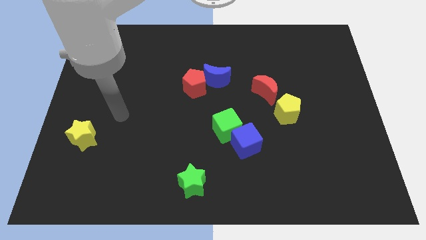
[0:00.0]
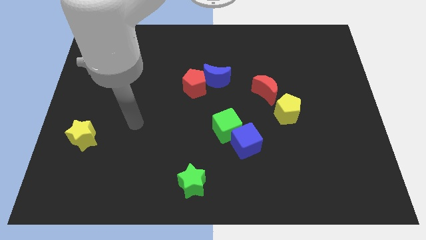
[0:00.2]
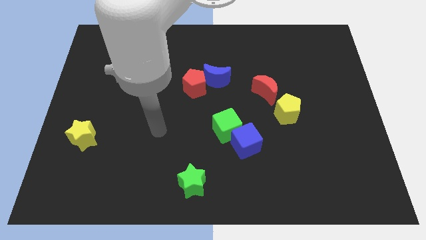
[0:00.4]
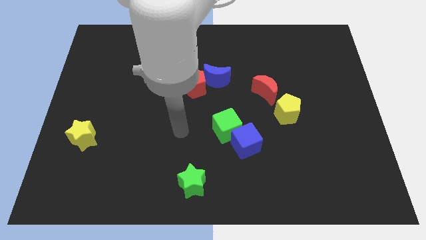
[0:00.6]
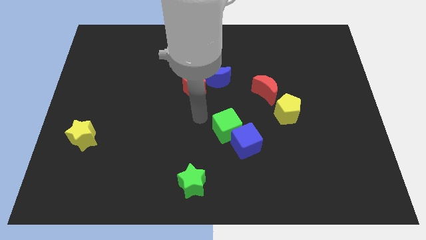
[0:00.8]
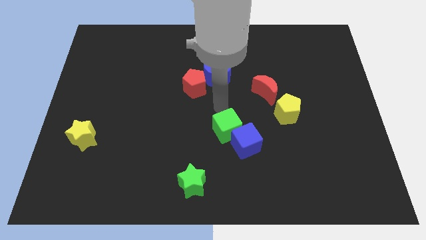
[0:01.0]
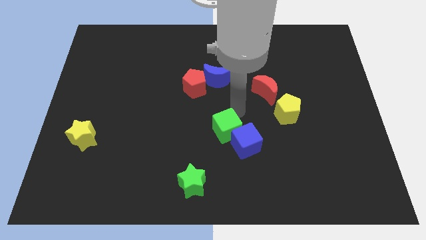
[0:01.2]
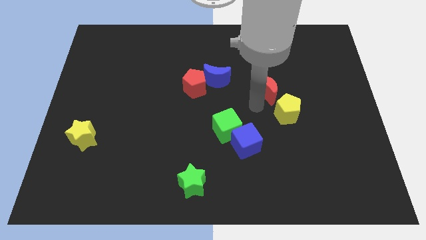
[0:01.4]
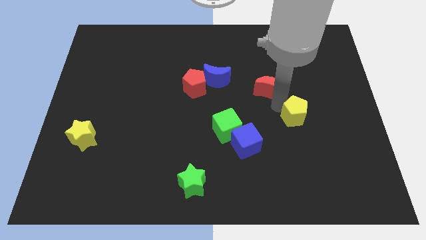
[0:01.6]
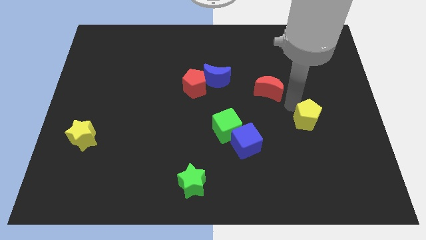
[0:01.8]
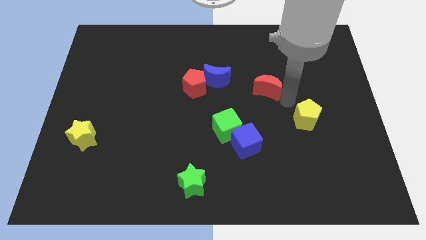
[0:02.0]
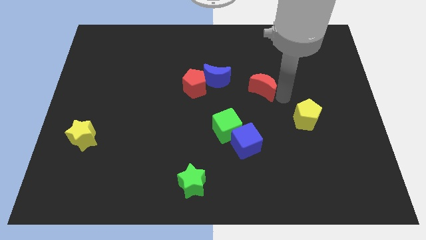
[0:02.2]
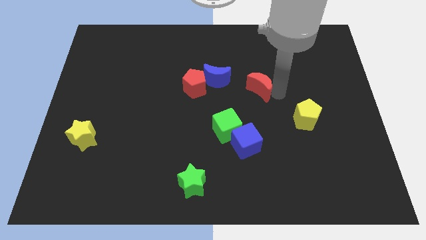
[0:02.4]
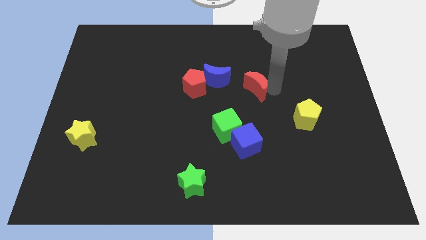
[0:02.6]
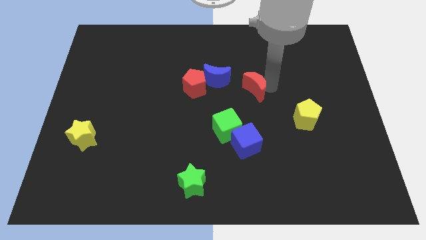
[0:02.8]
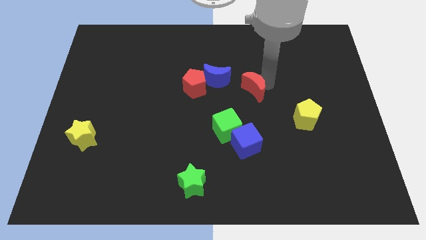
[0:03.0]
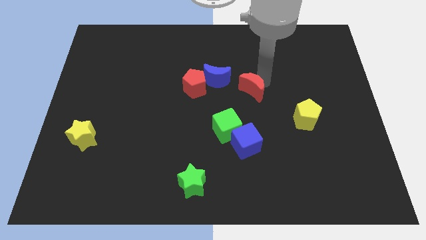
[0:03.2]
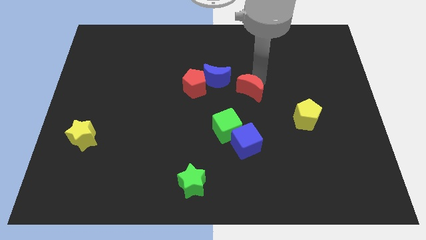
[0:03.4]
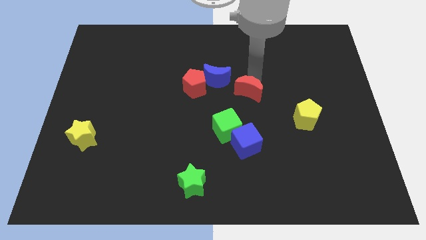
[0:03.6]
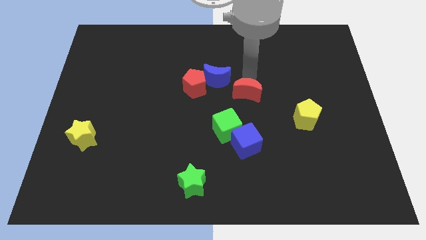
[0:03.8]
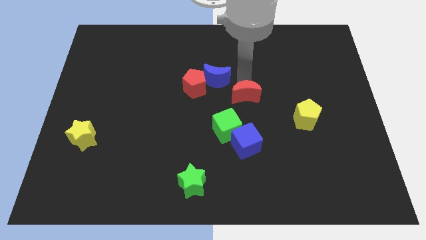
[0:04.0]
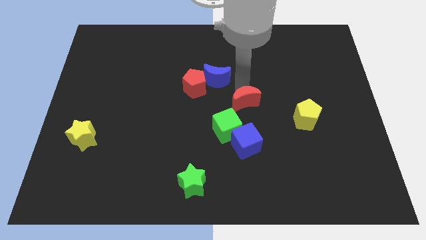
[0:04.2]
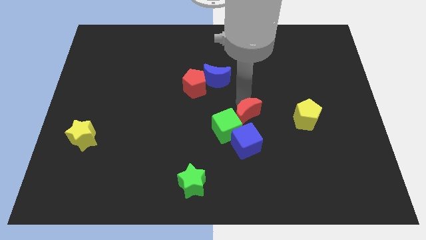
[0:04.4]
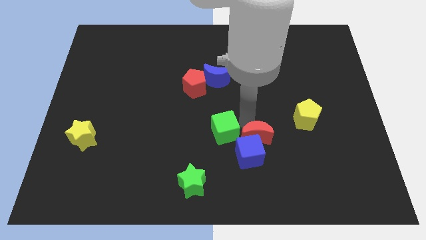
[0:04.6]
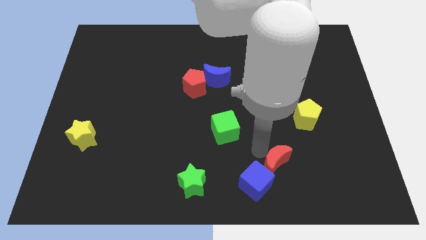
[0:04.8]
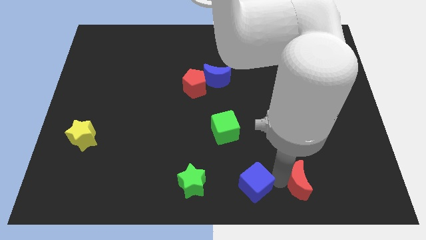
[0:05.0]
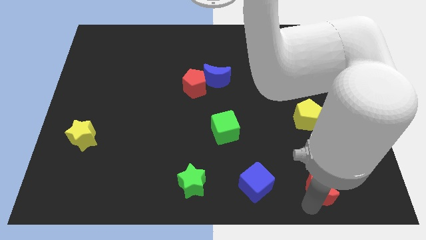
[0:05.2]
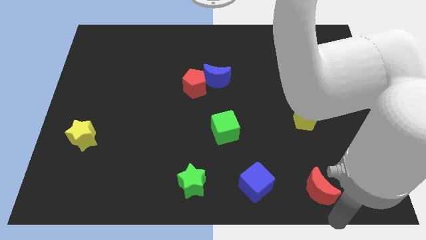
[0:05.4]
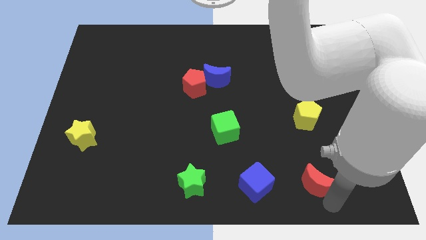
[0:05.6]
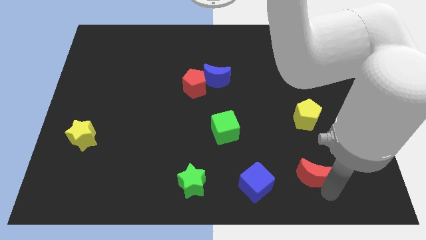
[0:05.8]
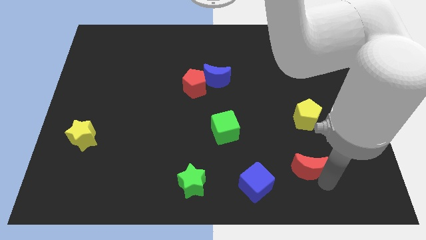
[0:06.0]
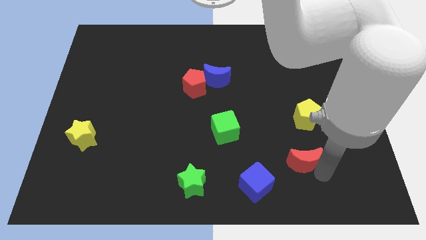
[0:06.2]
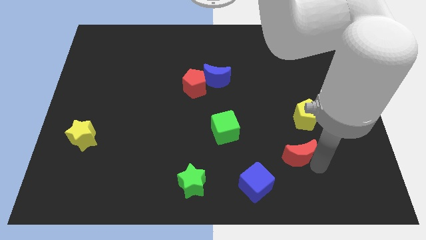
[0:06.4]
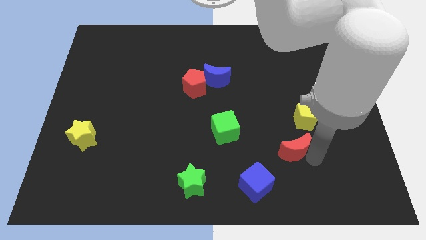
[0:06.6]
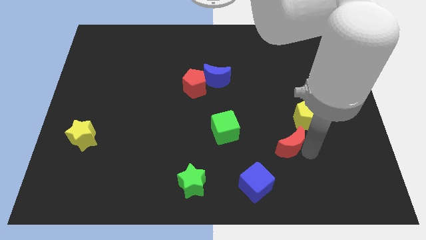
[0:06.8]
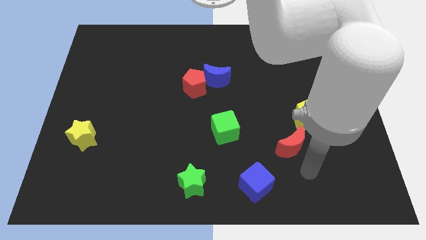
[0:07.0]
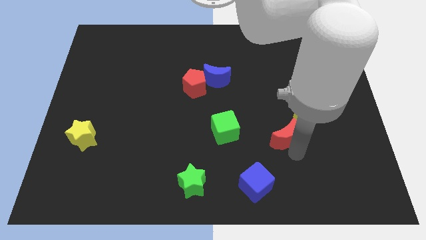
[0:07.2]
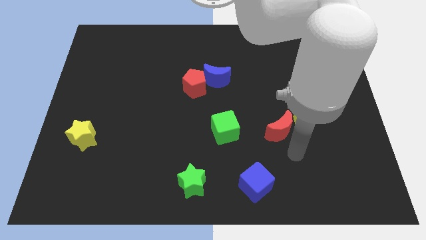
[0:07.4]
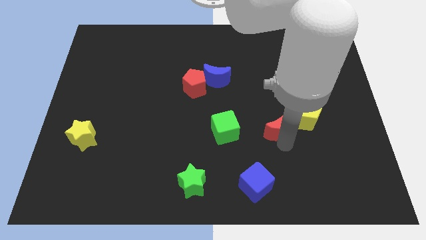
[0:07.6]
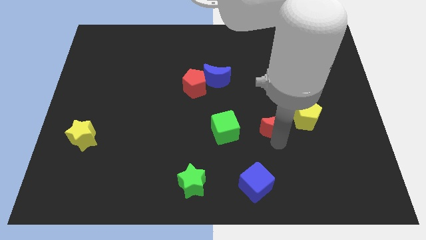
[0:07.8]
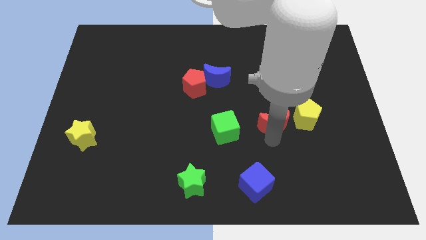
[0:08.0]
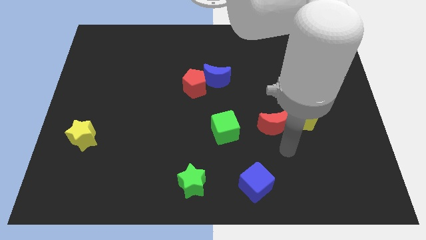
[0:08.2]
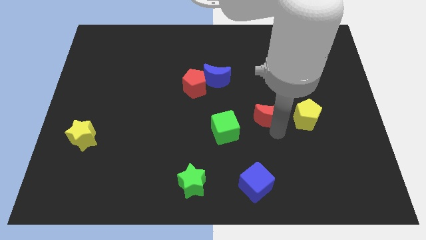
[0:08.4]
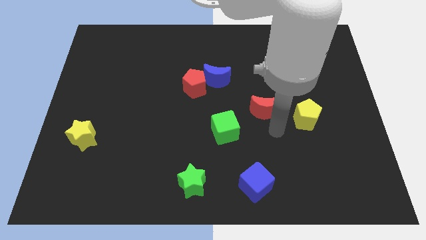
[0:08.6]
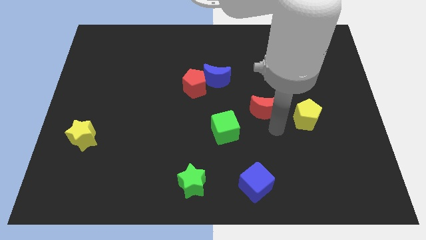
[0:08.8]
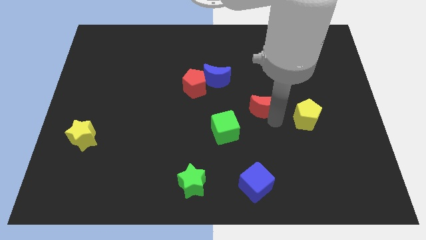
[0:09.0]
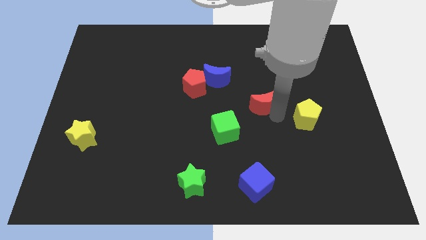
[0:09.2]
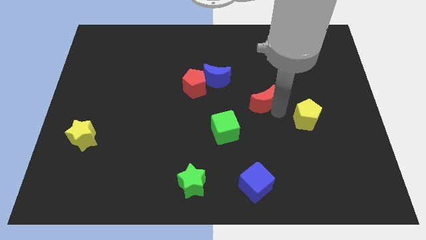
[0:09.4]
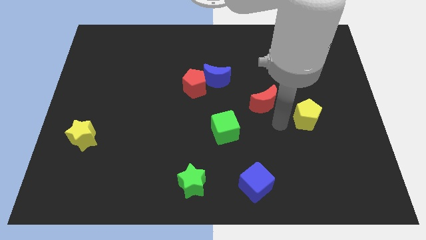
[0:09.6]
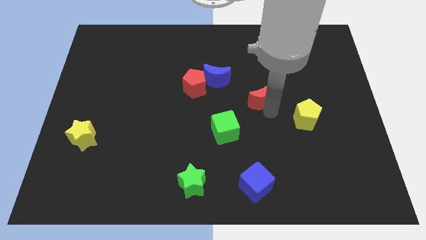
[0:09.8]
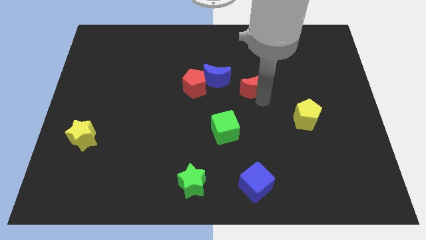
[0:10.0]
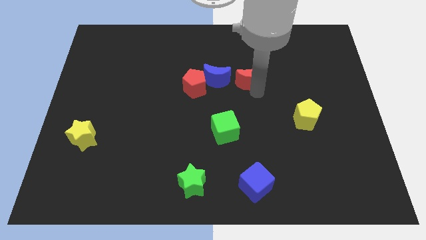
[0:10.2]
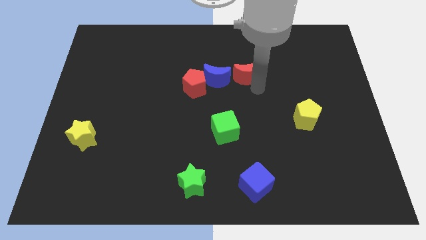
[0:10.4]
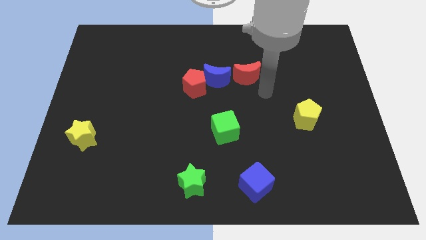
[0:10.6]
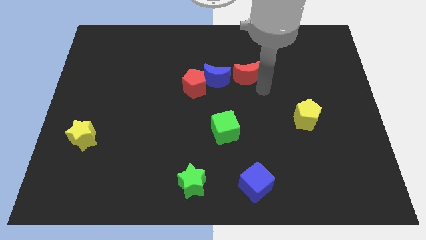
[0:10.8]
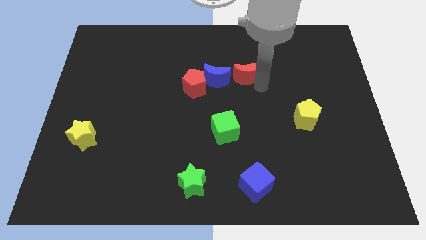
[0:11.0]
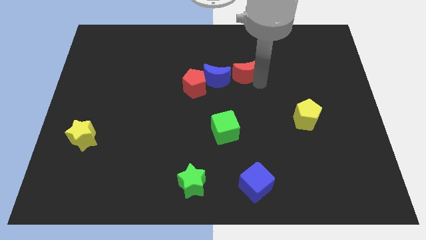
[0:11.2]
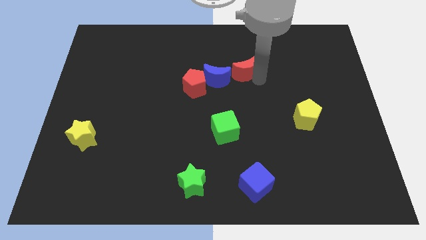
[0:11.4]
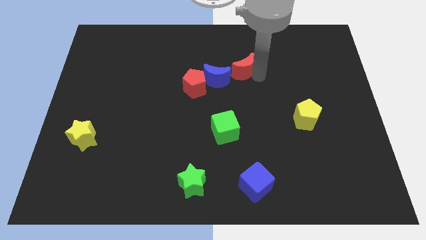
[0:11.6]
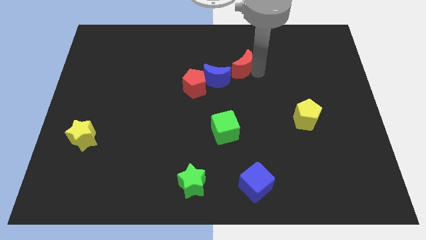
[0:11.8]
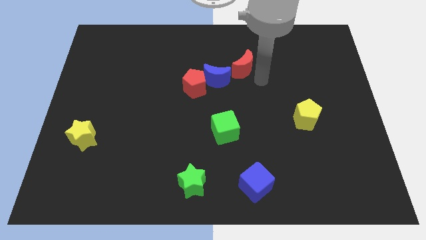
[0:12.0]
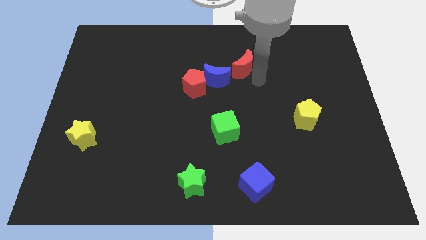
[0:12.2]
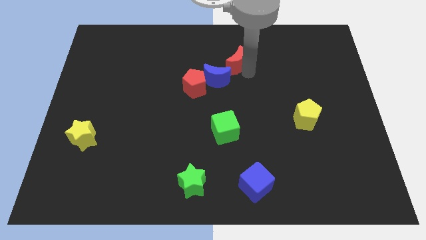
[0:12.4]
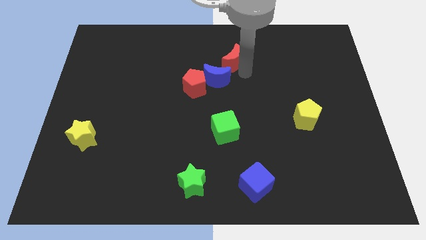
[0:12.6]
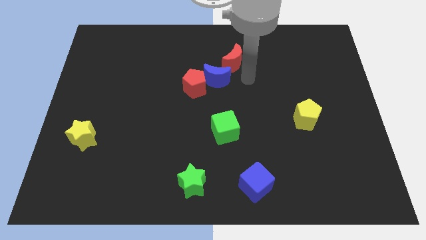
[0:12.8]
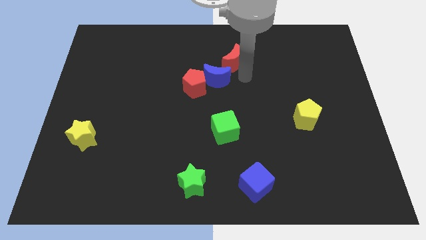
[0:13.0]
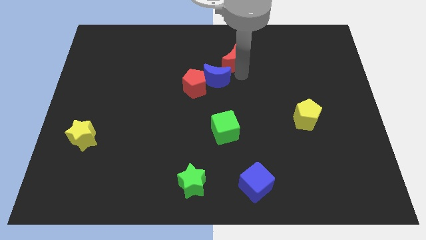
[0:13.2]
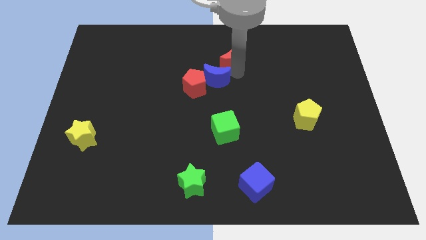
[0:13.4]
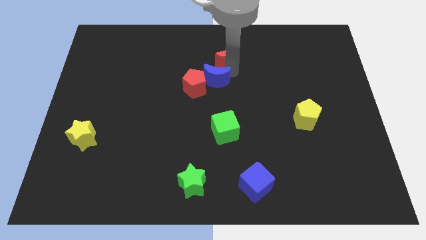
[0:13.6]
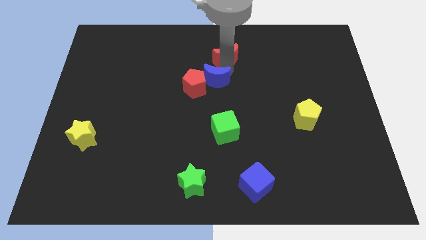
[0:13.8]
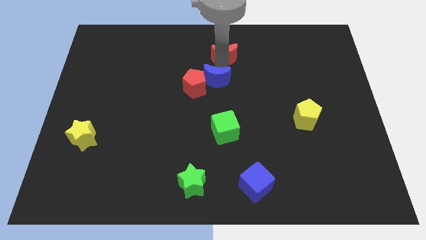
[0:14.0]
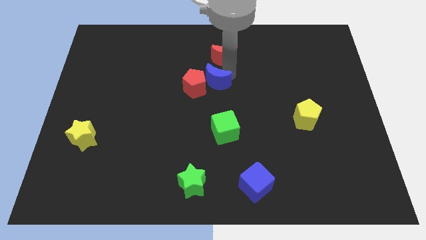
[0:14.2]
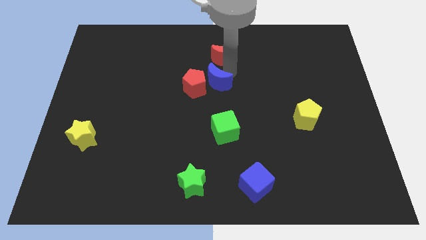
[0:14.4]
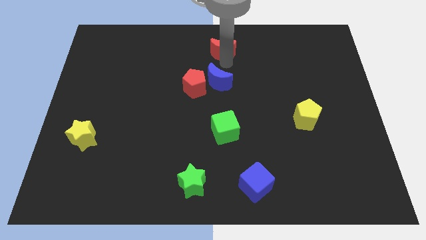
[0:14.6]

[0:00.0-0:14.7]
push the red moon to the top

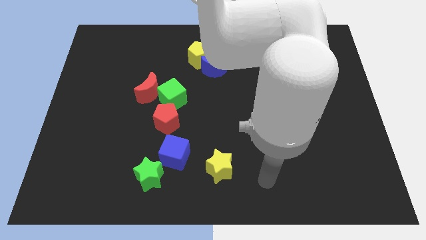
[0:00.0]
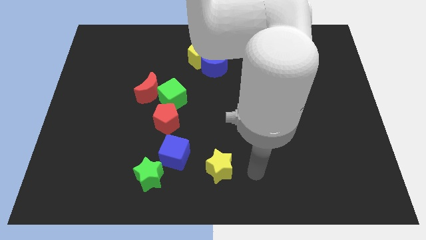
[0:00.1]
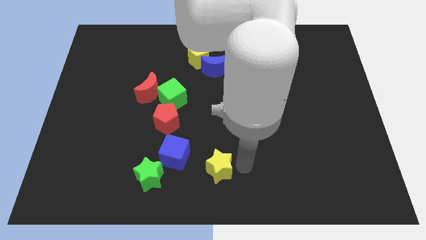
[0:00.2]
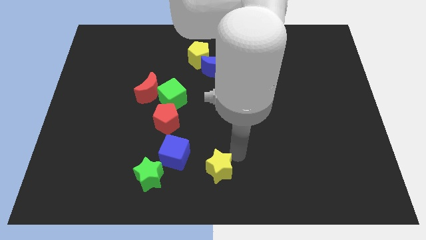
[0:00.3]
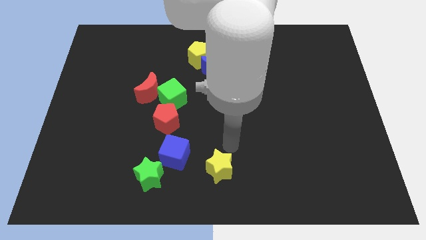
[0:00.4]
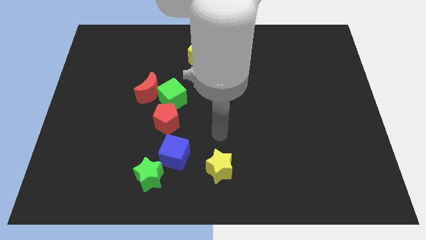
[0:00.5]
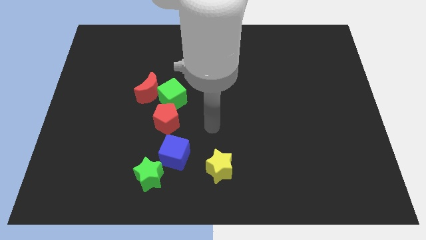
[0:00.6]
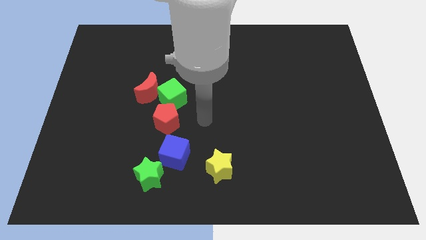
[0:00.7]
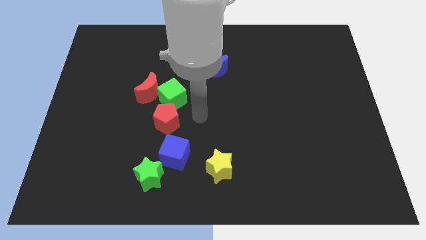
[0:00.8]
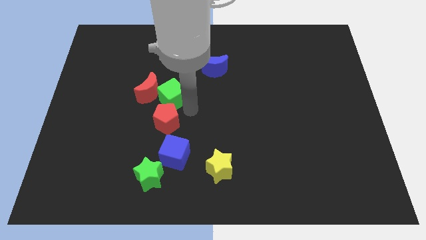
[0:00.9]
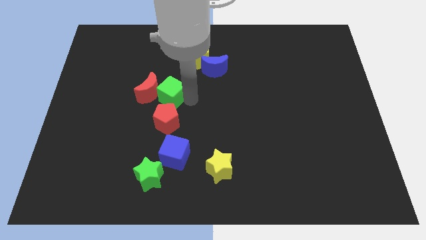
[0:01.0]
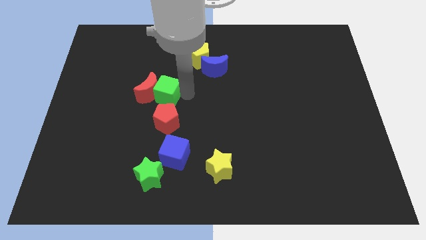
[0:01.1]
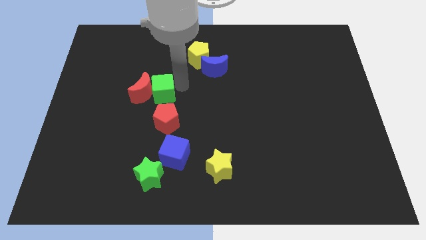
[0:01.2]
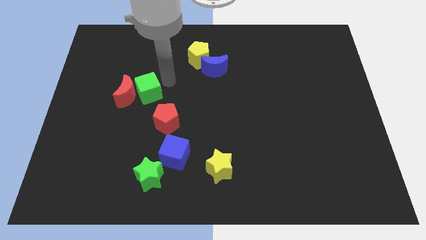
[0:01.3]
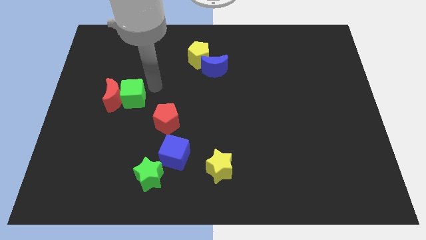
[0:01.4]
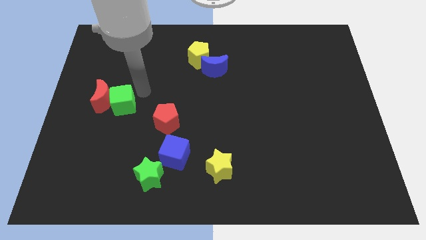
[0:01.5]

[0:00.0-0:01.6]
push the red moon to the left side of the board
